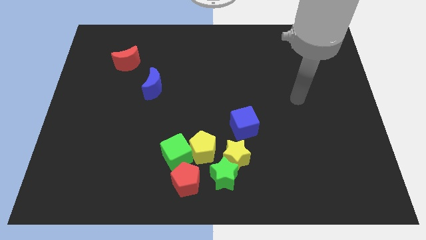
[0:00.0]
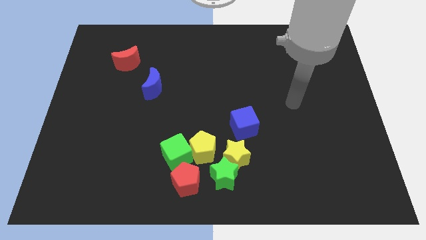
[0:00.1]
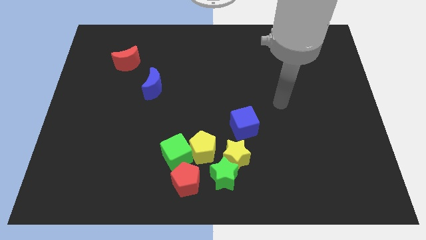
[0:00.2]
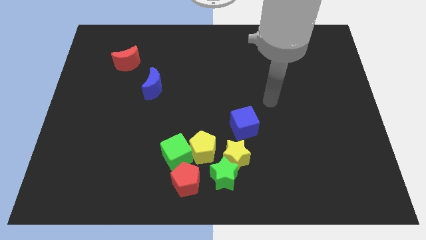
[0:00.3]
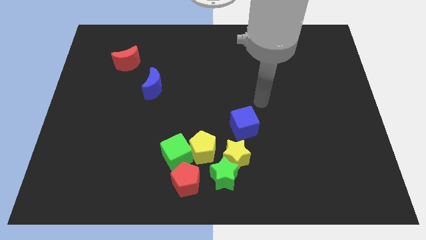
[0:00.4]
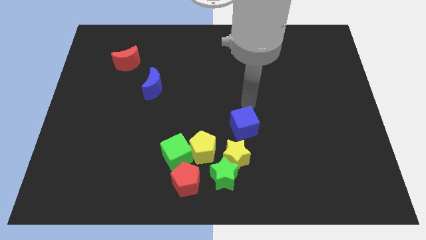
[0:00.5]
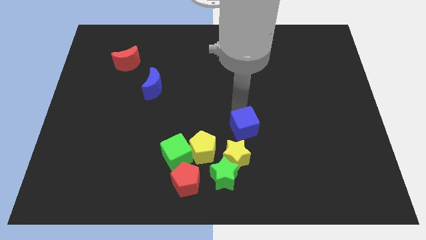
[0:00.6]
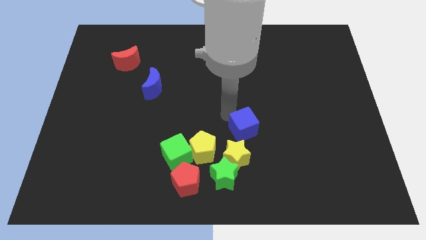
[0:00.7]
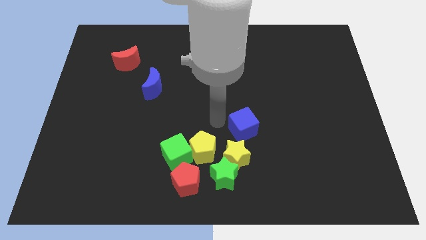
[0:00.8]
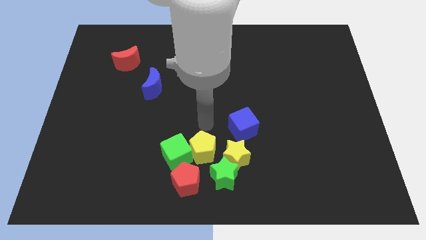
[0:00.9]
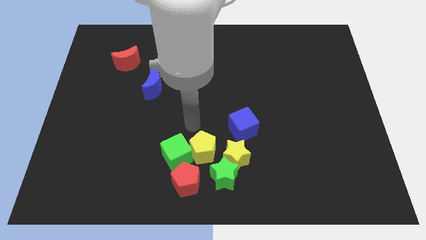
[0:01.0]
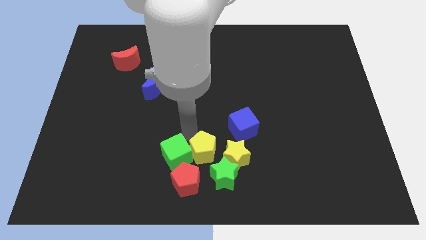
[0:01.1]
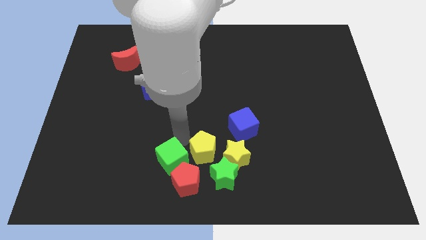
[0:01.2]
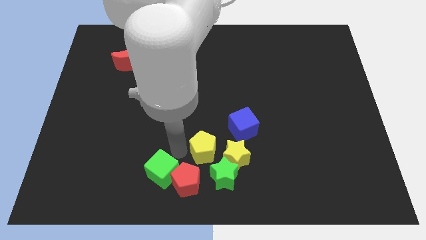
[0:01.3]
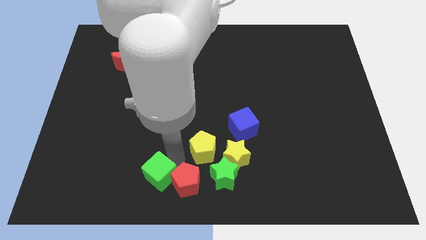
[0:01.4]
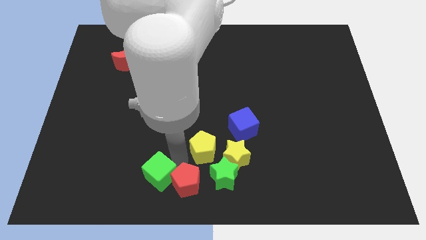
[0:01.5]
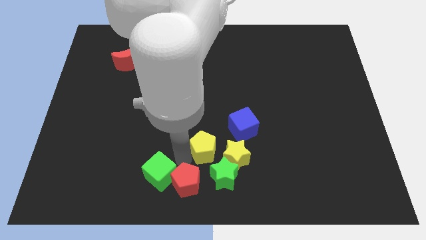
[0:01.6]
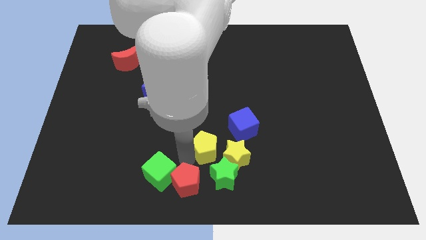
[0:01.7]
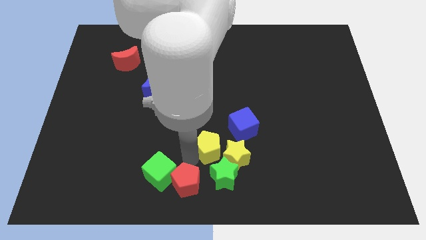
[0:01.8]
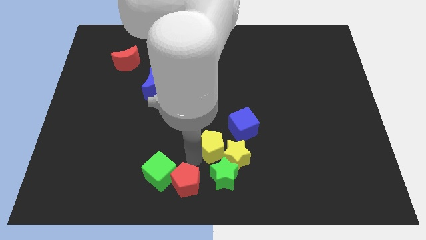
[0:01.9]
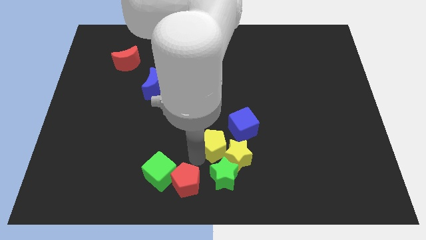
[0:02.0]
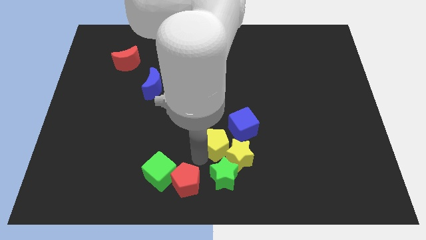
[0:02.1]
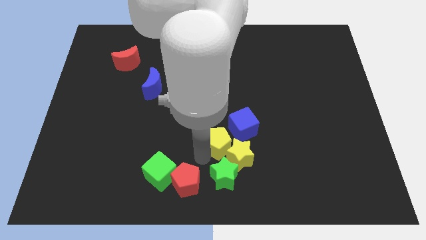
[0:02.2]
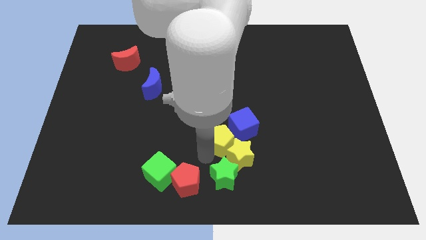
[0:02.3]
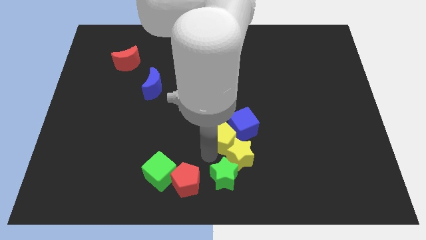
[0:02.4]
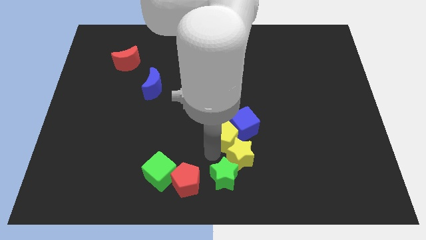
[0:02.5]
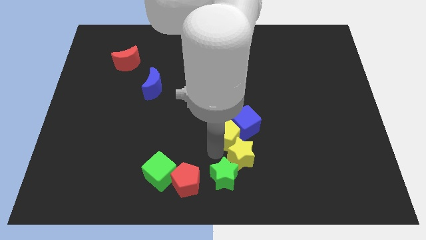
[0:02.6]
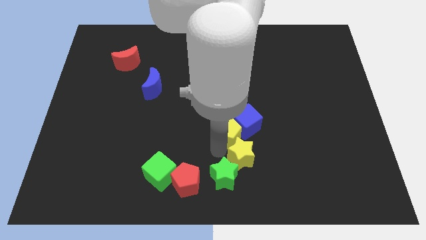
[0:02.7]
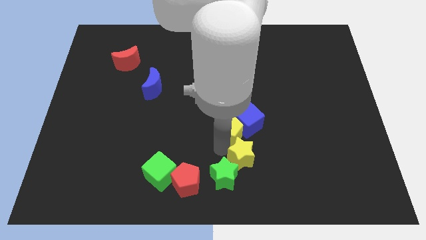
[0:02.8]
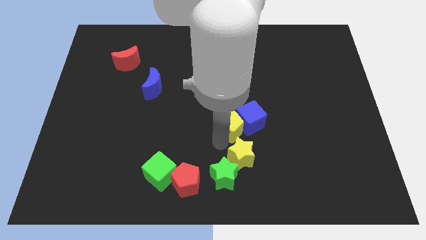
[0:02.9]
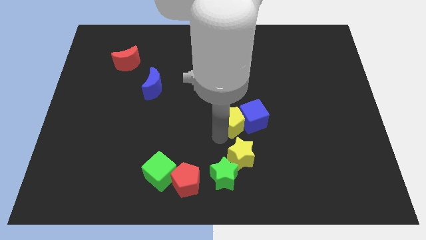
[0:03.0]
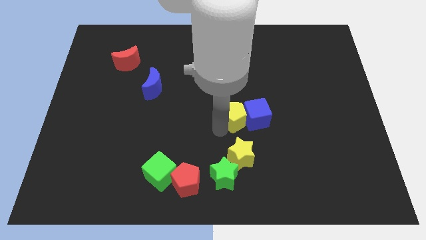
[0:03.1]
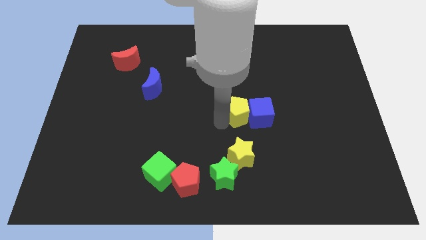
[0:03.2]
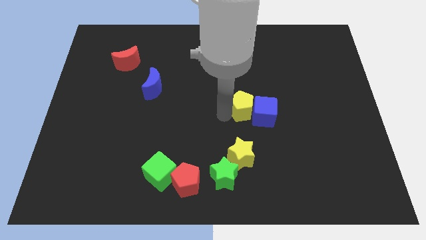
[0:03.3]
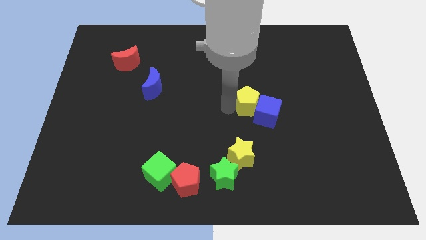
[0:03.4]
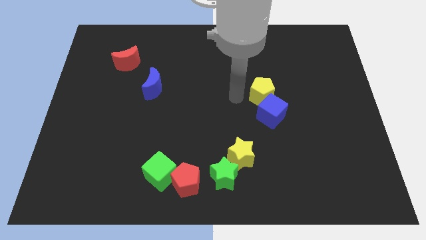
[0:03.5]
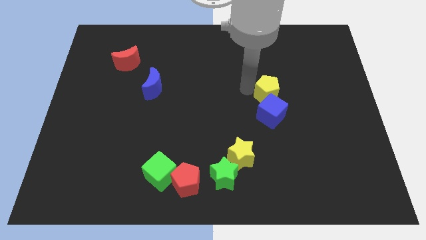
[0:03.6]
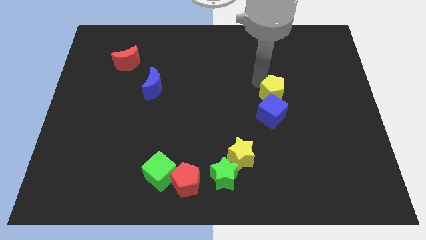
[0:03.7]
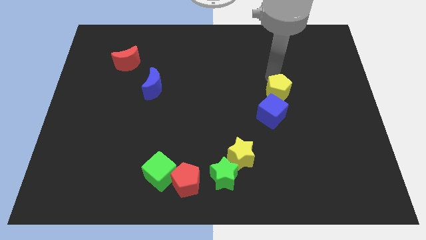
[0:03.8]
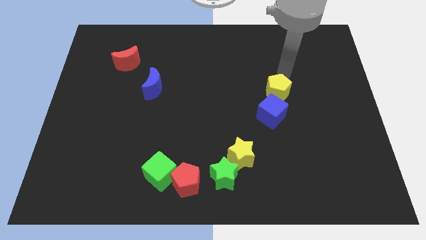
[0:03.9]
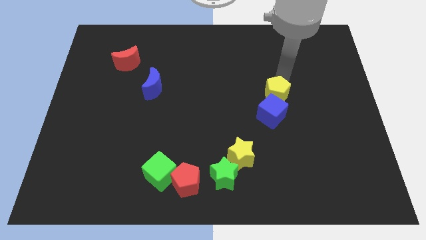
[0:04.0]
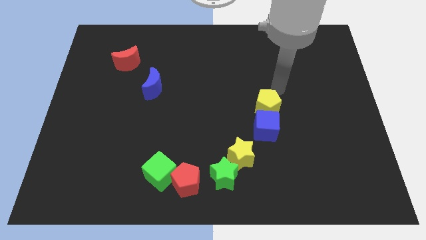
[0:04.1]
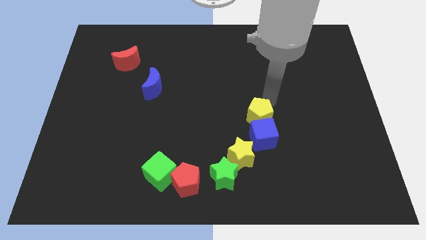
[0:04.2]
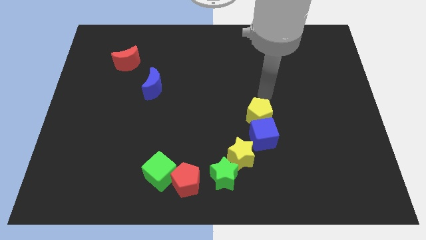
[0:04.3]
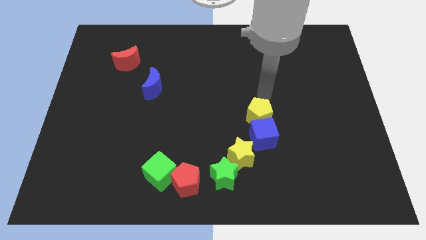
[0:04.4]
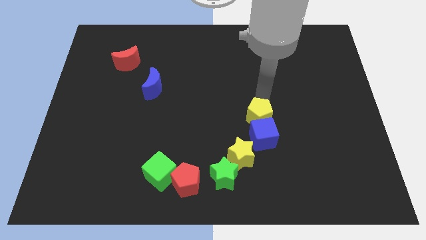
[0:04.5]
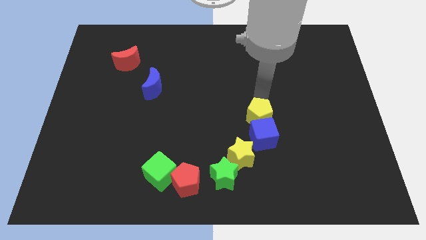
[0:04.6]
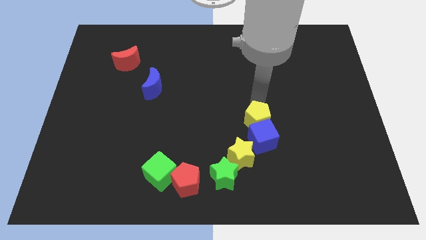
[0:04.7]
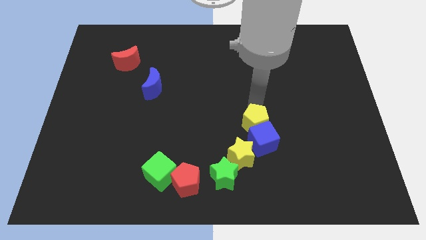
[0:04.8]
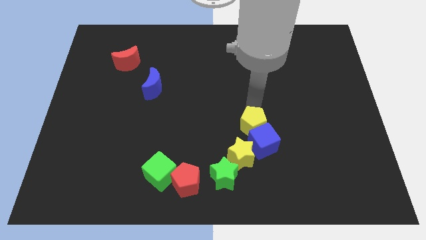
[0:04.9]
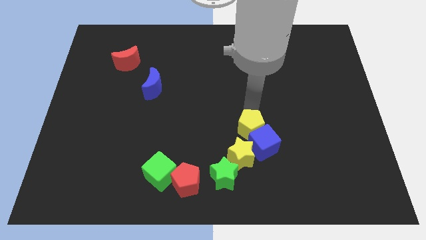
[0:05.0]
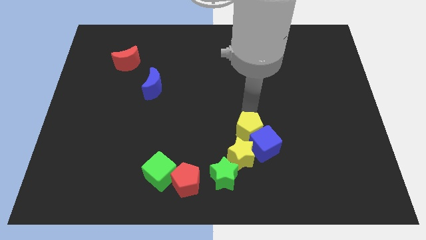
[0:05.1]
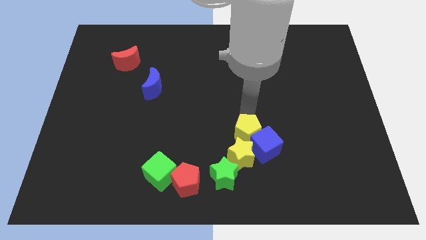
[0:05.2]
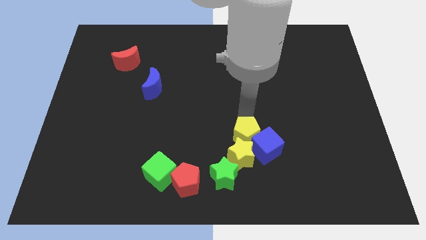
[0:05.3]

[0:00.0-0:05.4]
move the yellow pentagon diagonally up and to the right of the green star

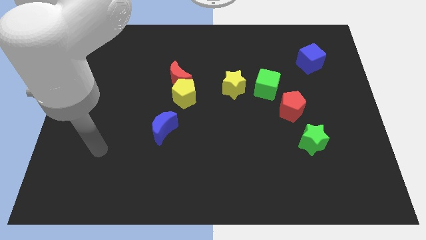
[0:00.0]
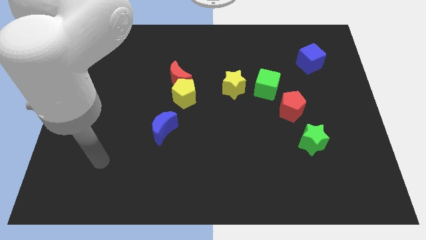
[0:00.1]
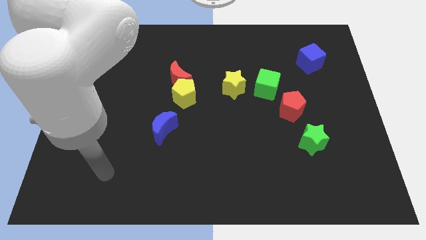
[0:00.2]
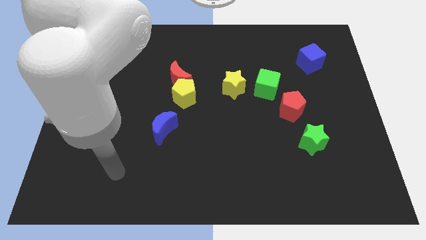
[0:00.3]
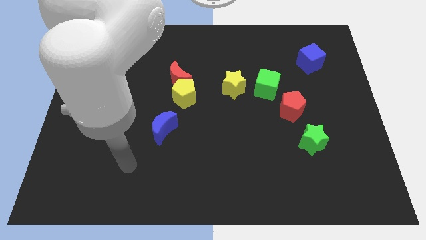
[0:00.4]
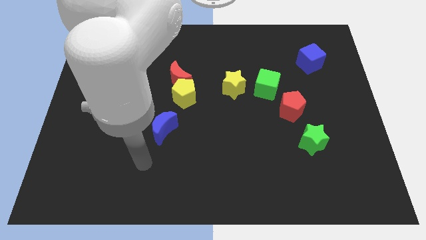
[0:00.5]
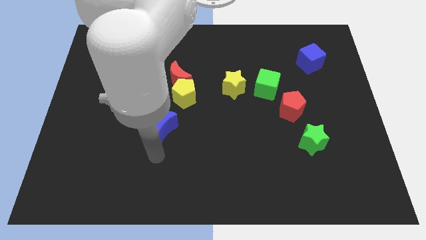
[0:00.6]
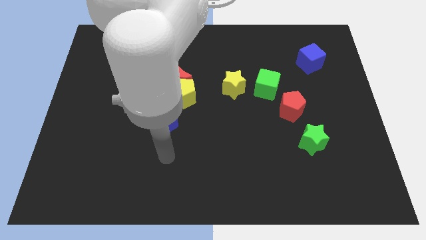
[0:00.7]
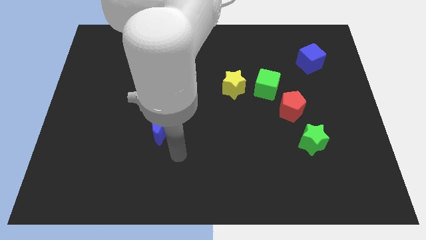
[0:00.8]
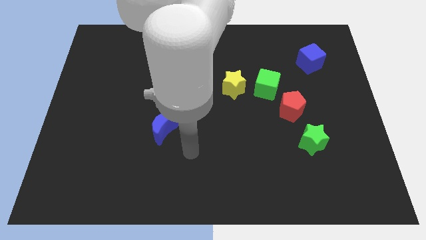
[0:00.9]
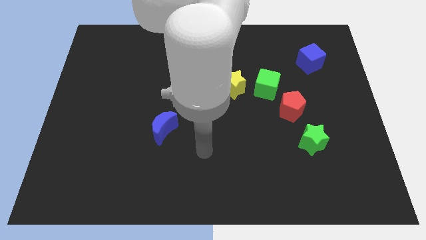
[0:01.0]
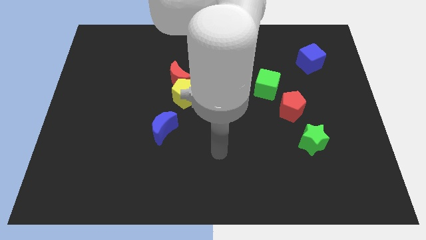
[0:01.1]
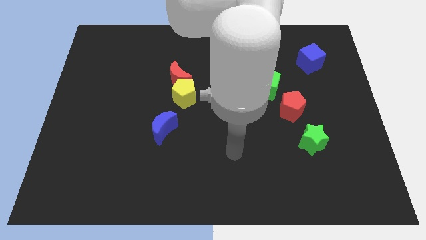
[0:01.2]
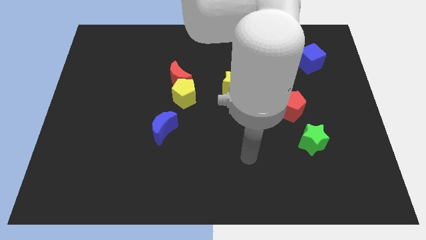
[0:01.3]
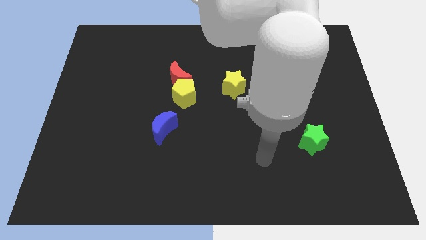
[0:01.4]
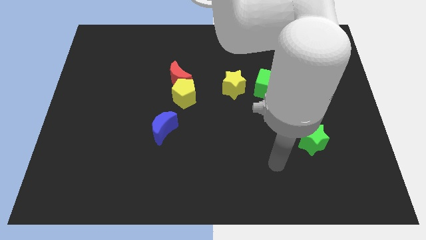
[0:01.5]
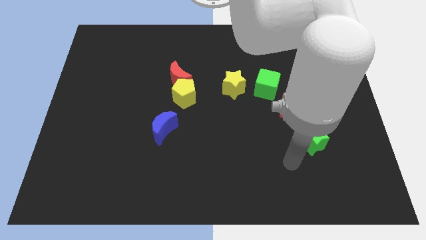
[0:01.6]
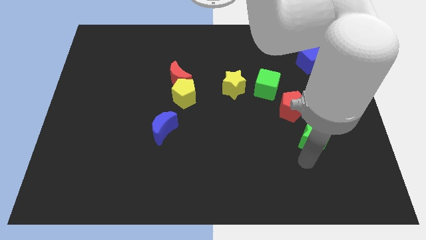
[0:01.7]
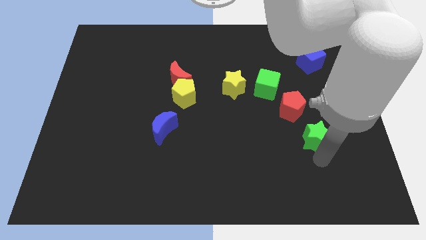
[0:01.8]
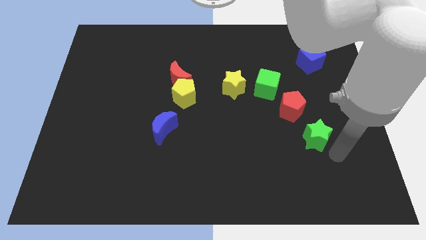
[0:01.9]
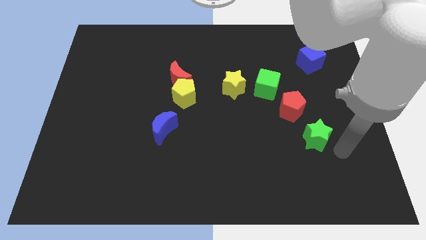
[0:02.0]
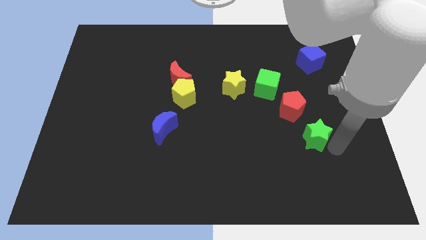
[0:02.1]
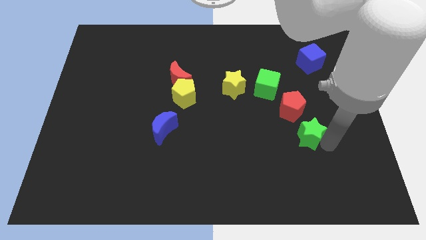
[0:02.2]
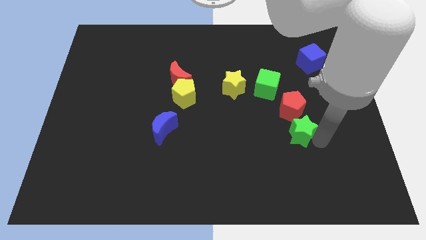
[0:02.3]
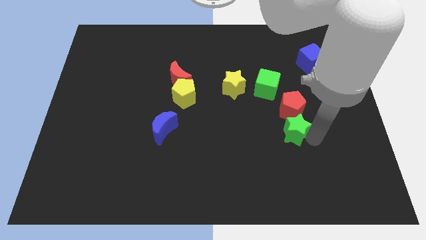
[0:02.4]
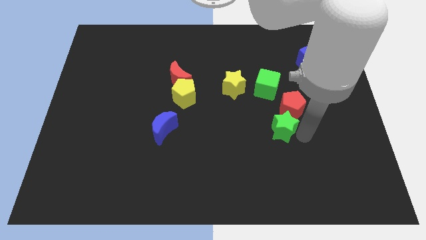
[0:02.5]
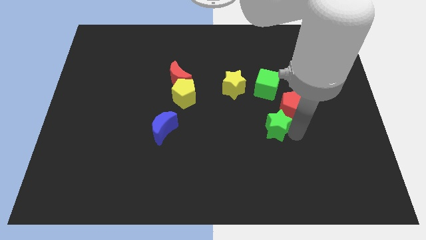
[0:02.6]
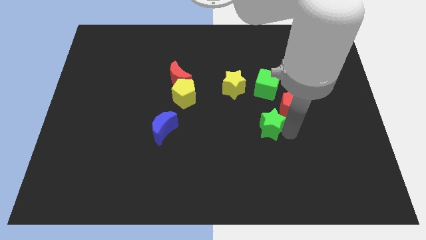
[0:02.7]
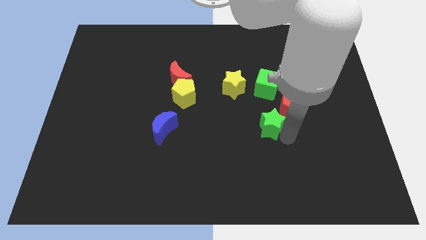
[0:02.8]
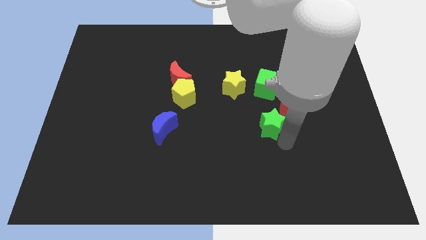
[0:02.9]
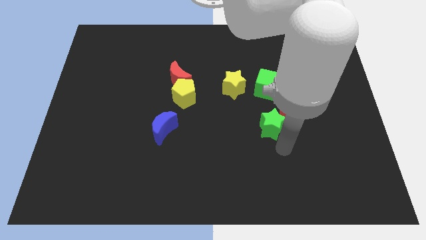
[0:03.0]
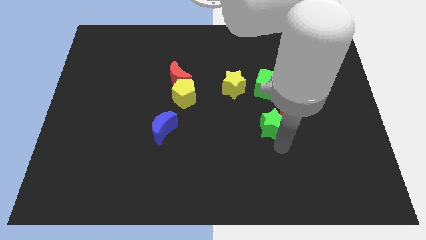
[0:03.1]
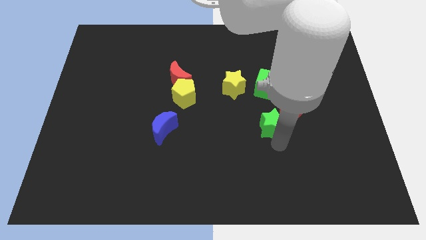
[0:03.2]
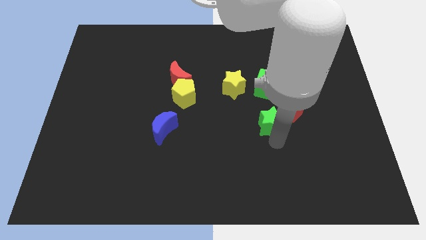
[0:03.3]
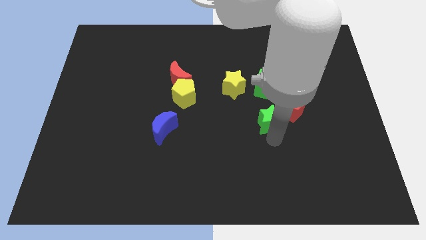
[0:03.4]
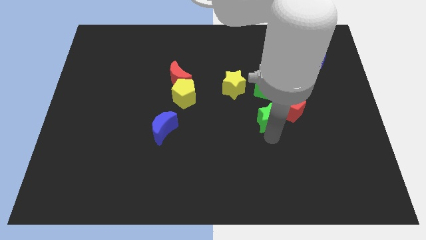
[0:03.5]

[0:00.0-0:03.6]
move the green star diagonally down and to the right of the yellow star
